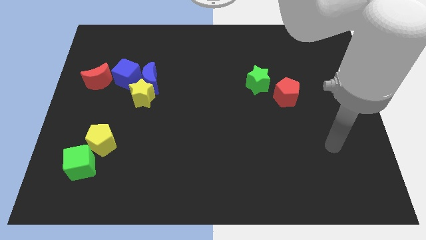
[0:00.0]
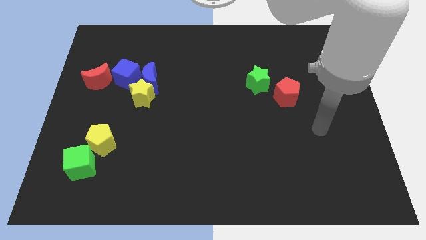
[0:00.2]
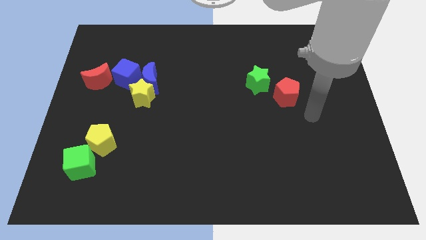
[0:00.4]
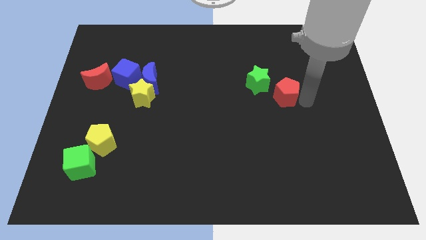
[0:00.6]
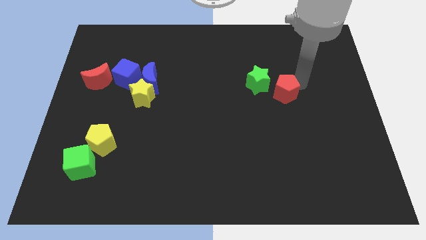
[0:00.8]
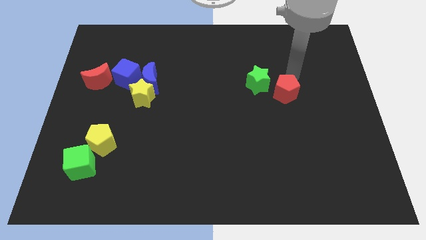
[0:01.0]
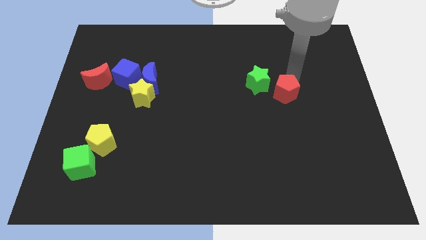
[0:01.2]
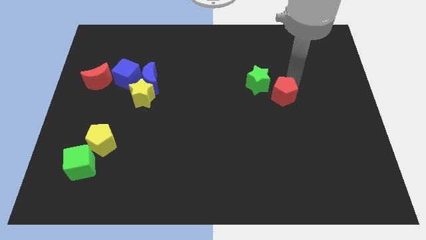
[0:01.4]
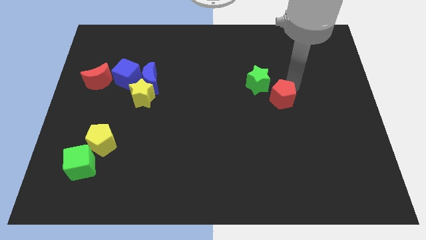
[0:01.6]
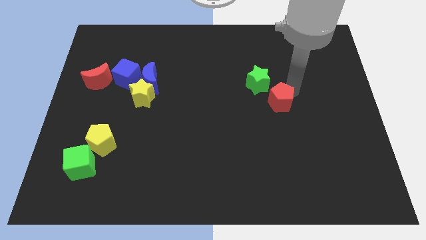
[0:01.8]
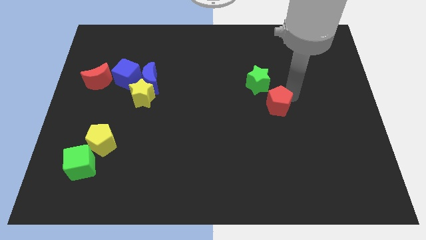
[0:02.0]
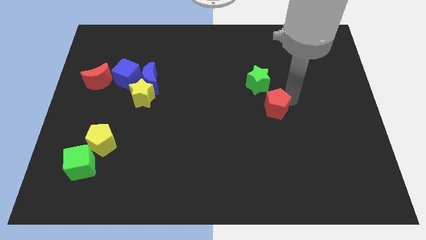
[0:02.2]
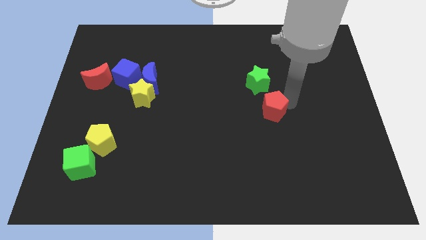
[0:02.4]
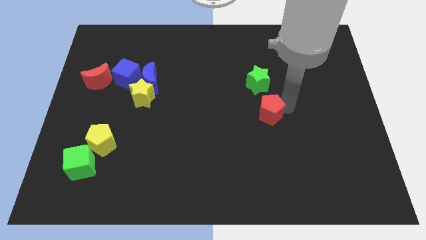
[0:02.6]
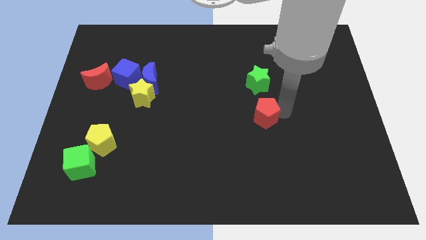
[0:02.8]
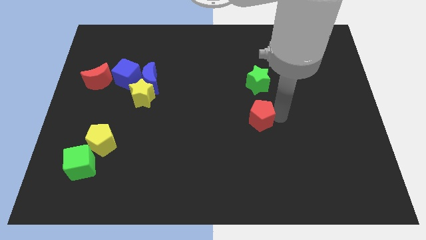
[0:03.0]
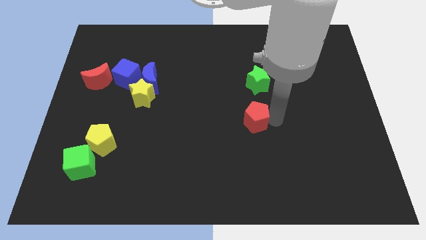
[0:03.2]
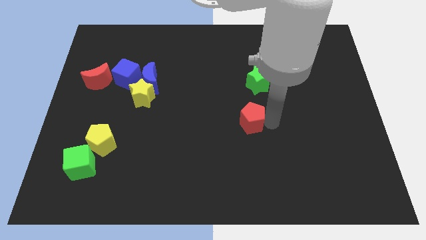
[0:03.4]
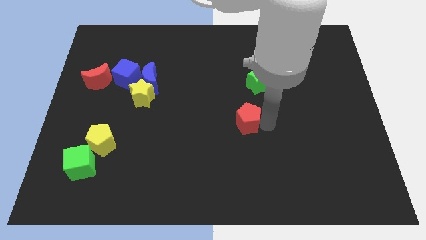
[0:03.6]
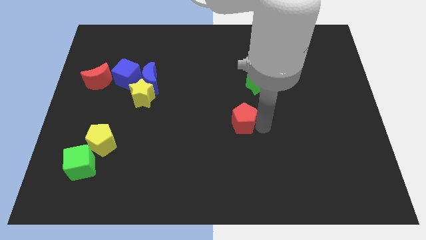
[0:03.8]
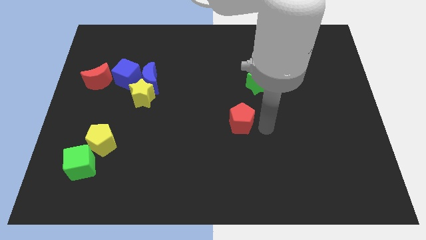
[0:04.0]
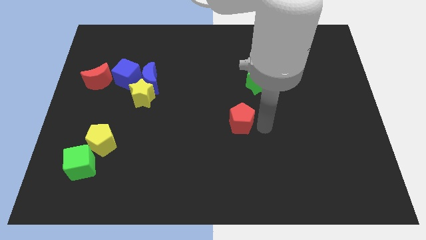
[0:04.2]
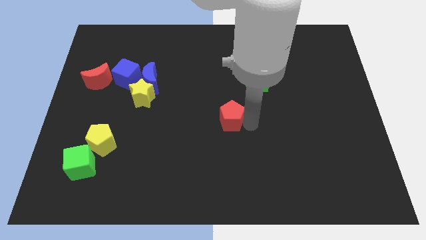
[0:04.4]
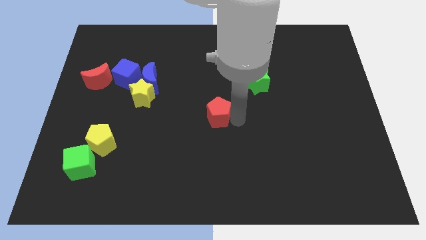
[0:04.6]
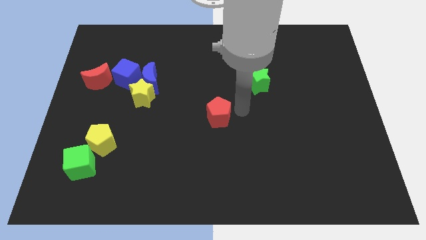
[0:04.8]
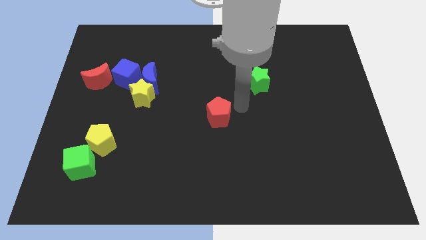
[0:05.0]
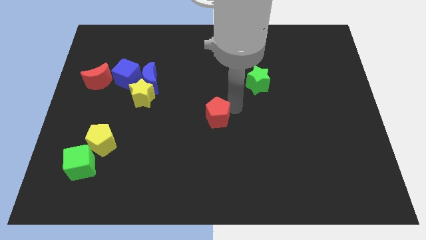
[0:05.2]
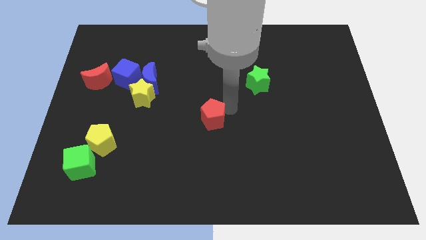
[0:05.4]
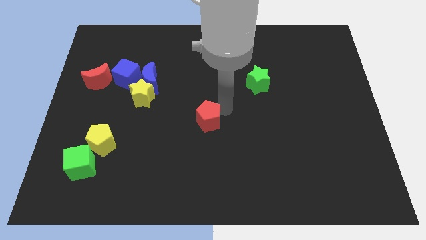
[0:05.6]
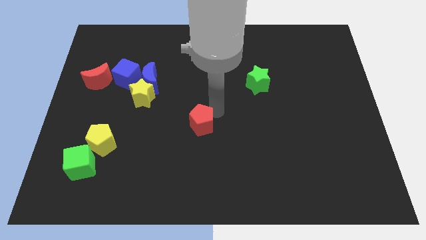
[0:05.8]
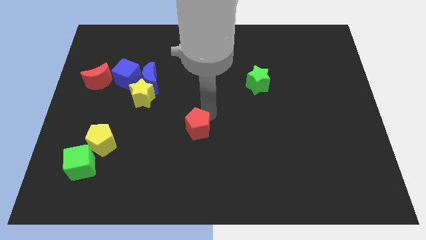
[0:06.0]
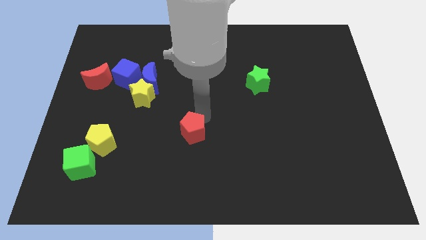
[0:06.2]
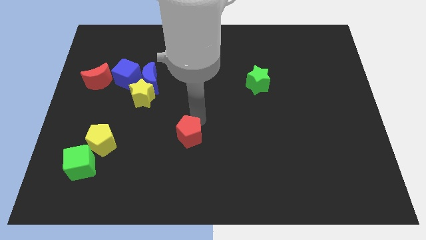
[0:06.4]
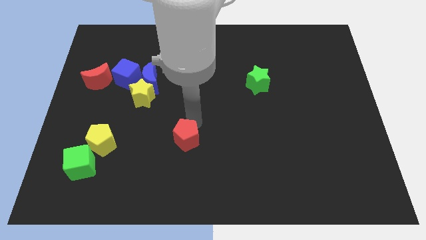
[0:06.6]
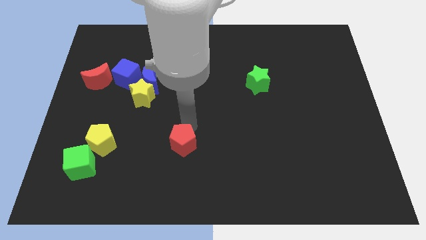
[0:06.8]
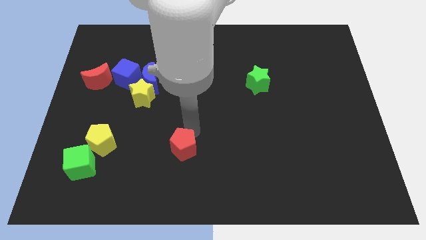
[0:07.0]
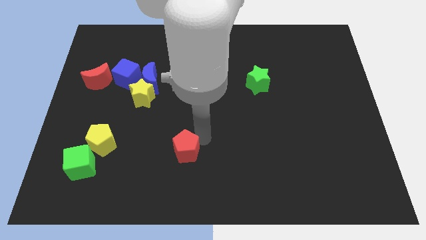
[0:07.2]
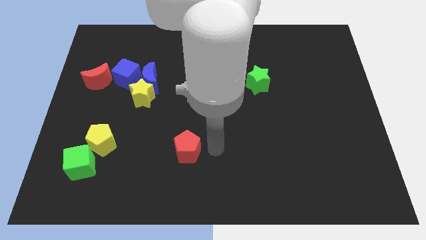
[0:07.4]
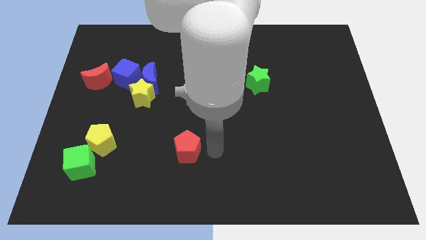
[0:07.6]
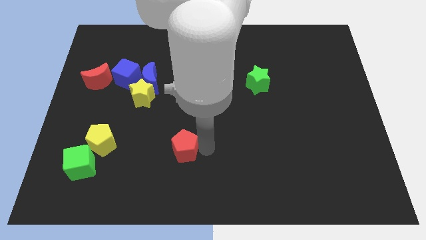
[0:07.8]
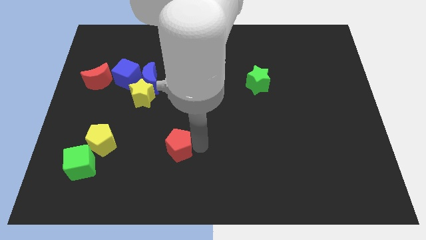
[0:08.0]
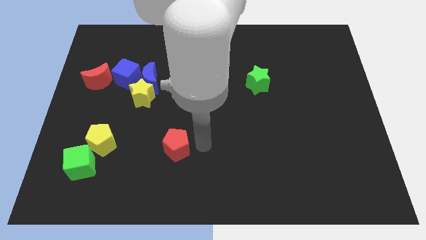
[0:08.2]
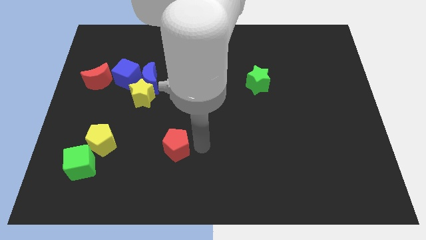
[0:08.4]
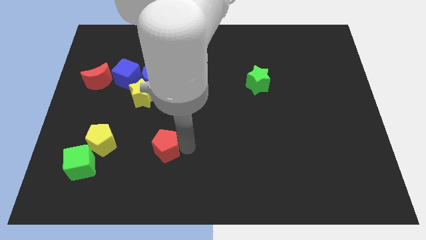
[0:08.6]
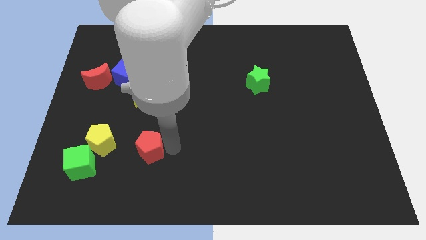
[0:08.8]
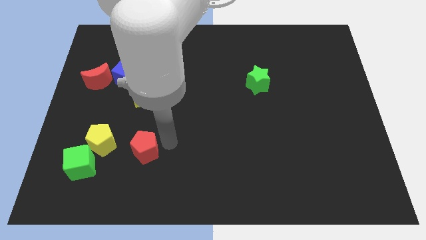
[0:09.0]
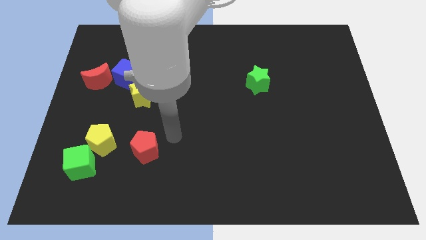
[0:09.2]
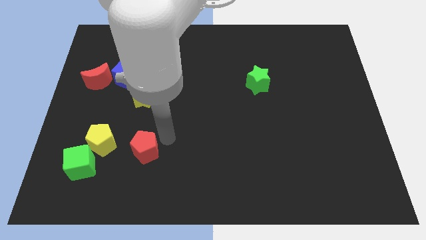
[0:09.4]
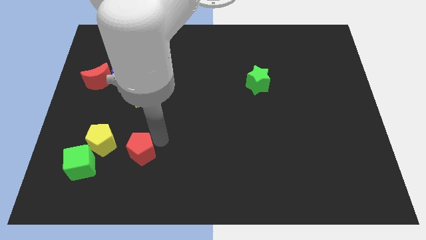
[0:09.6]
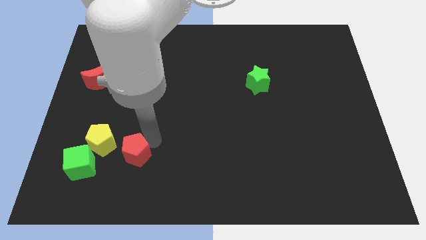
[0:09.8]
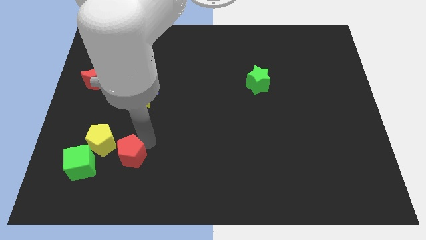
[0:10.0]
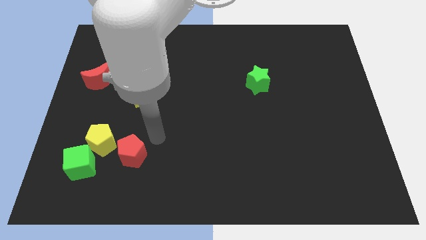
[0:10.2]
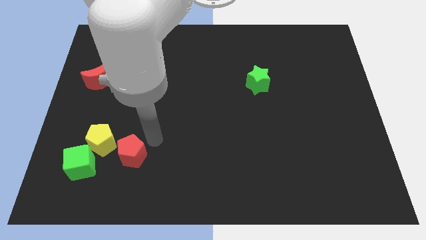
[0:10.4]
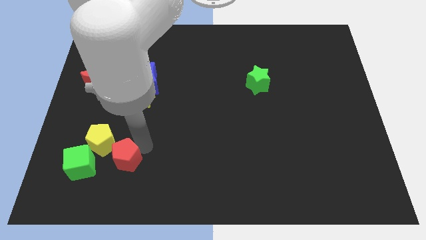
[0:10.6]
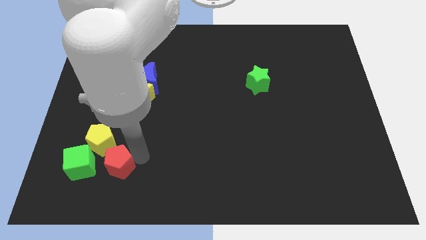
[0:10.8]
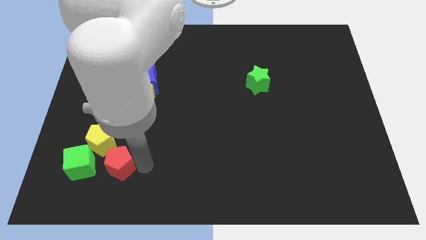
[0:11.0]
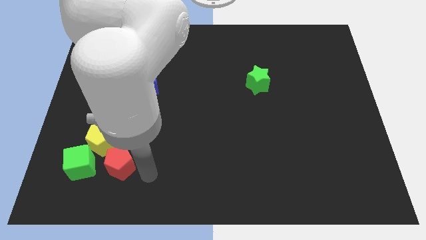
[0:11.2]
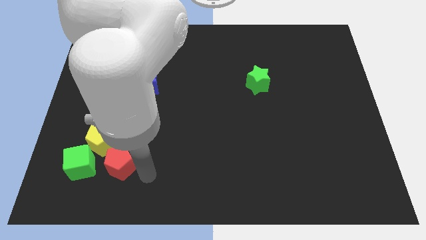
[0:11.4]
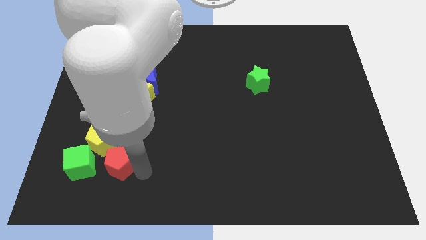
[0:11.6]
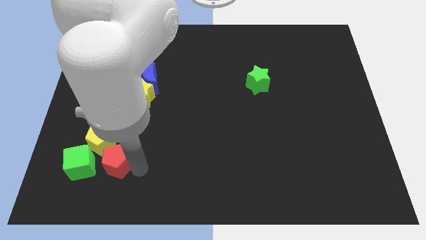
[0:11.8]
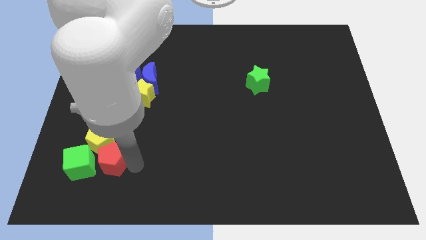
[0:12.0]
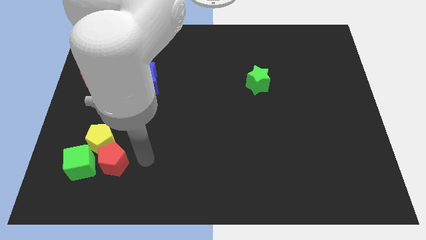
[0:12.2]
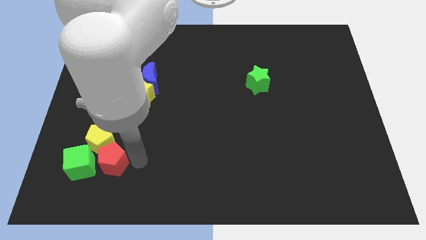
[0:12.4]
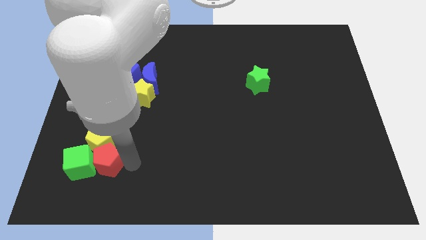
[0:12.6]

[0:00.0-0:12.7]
push the red pentagon towards the green cube
